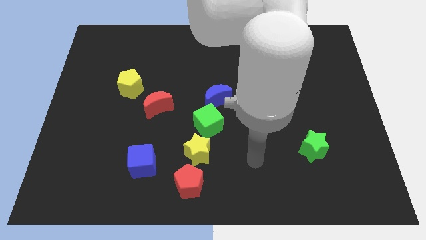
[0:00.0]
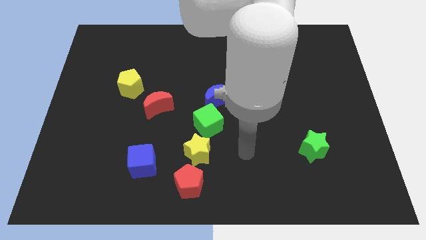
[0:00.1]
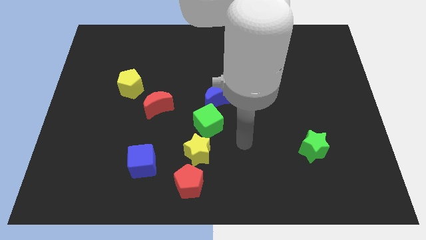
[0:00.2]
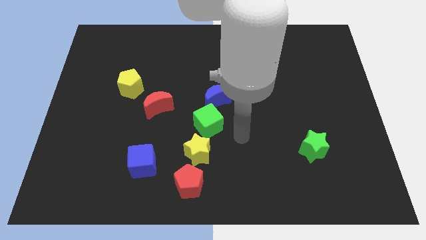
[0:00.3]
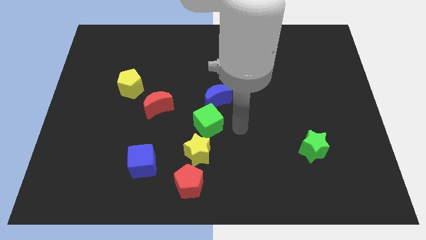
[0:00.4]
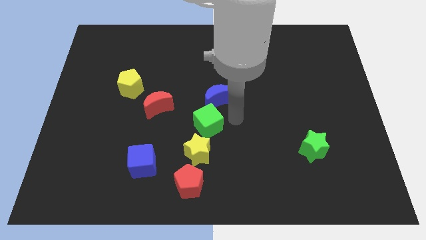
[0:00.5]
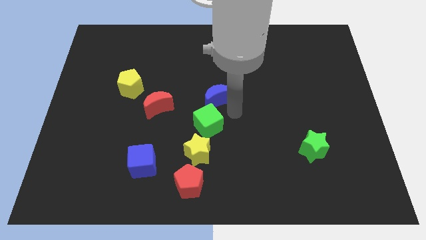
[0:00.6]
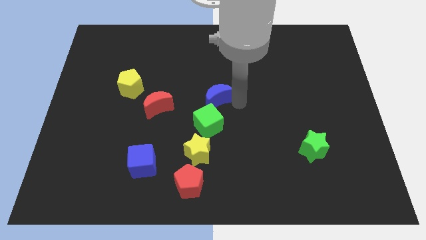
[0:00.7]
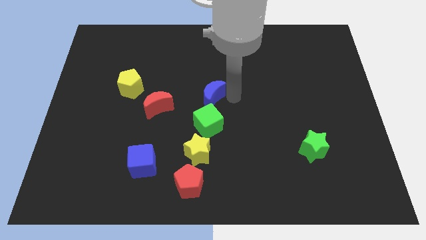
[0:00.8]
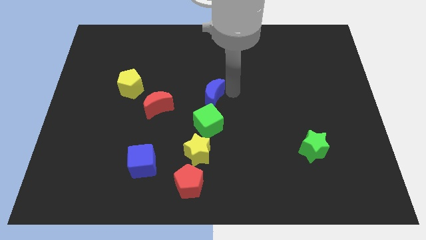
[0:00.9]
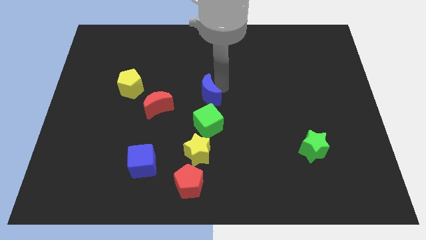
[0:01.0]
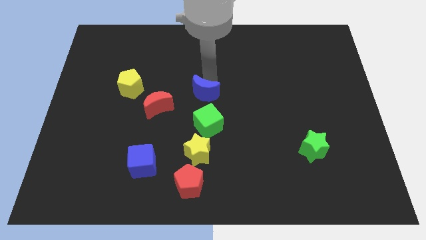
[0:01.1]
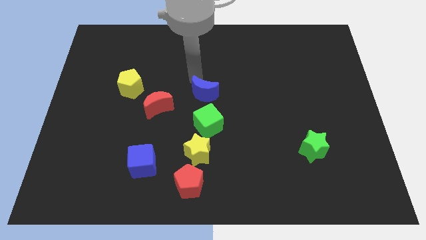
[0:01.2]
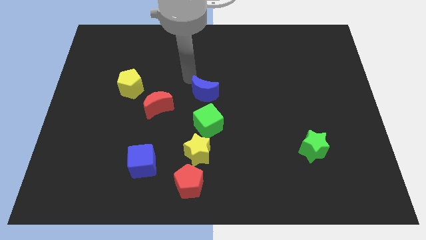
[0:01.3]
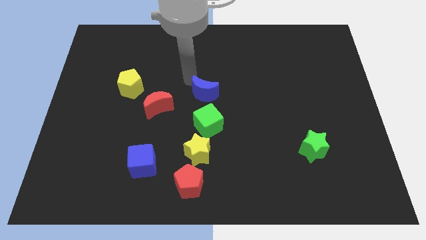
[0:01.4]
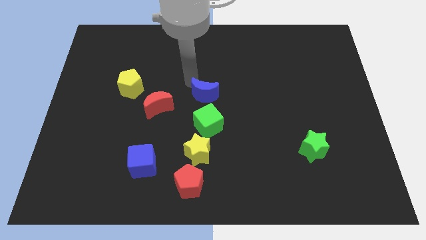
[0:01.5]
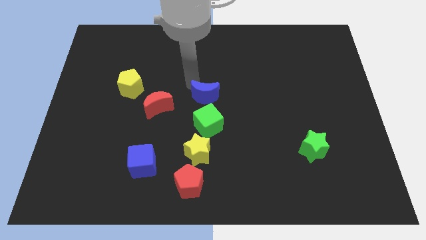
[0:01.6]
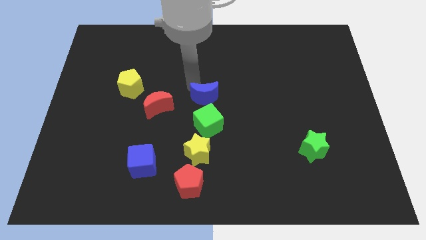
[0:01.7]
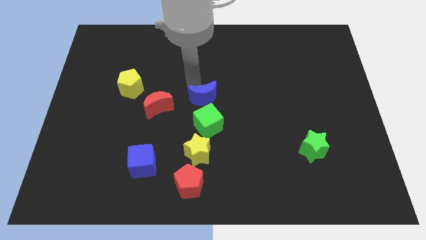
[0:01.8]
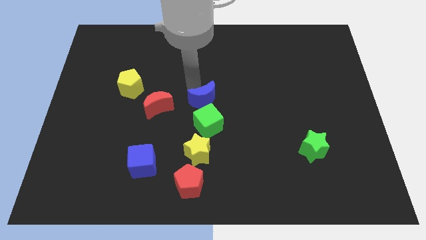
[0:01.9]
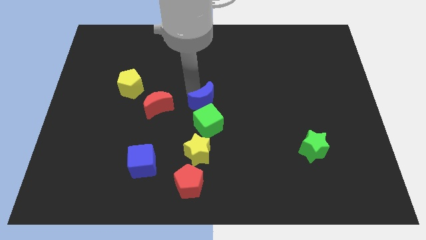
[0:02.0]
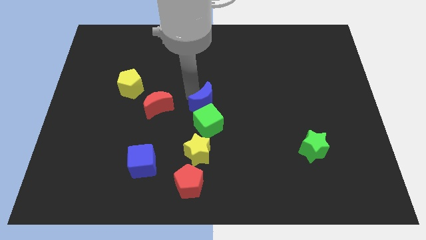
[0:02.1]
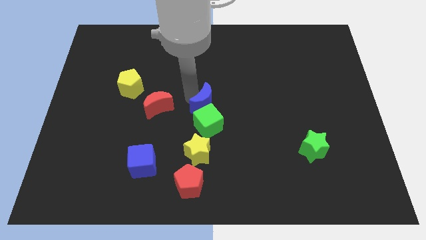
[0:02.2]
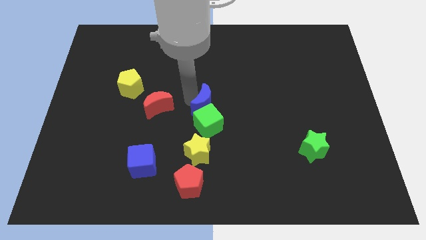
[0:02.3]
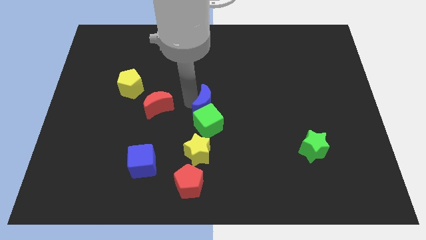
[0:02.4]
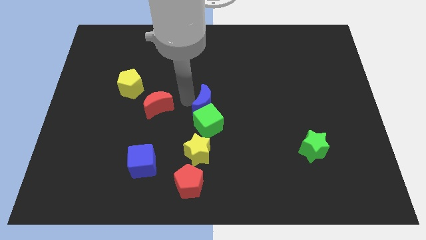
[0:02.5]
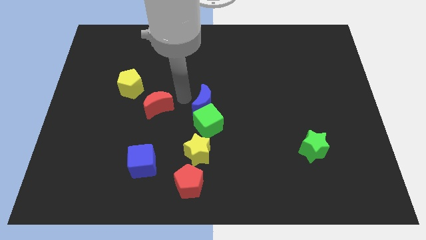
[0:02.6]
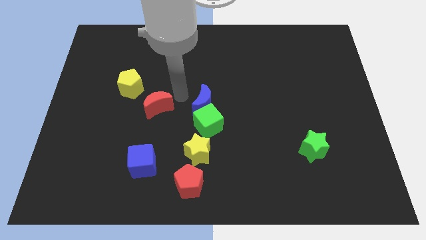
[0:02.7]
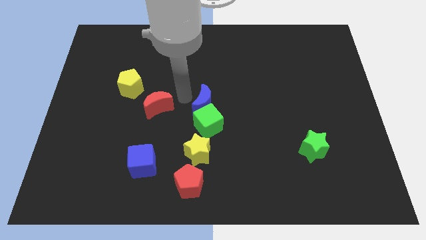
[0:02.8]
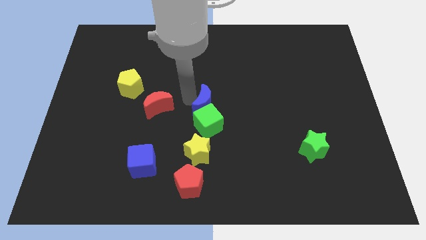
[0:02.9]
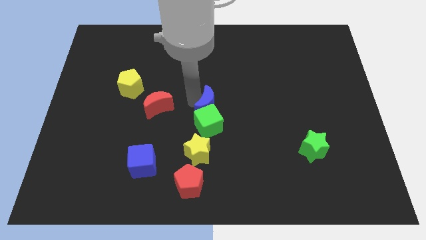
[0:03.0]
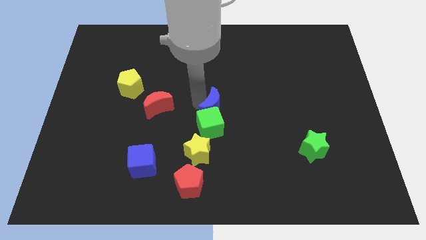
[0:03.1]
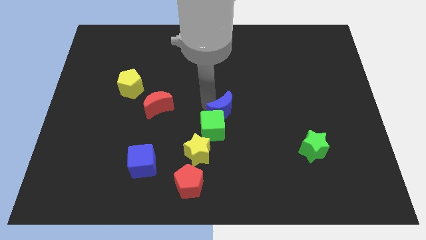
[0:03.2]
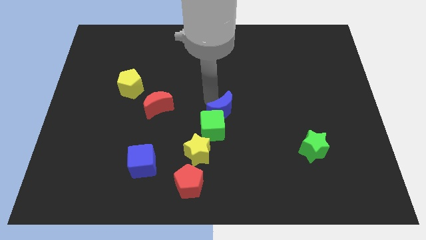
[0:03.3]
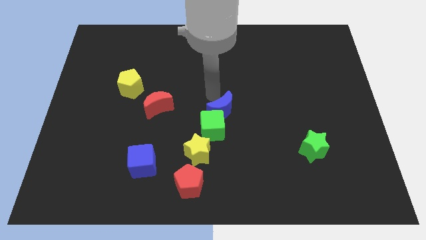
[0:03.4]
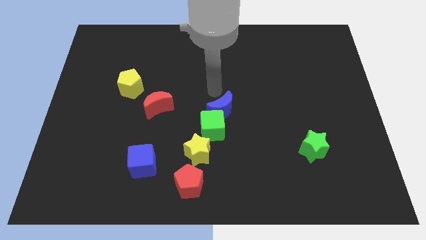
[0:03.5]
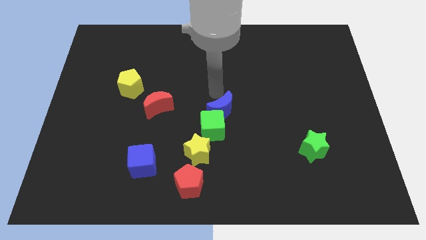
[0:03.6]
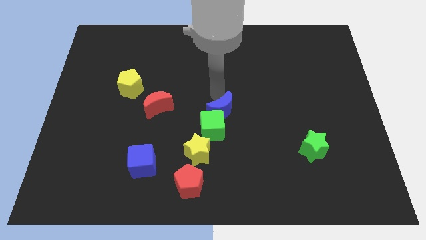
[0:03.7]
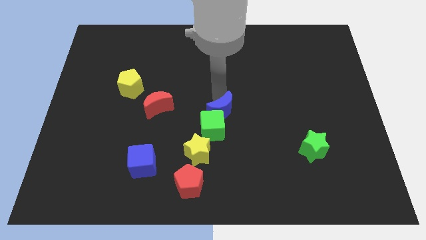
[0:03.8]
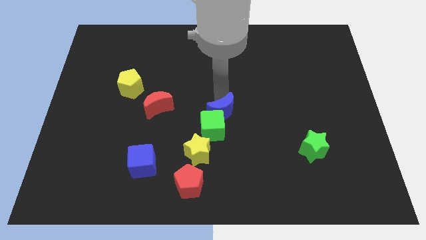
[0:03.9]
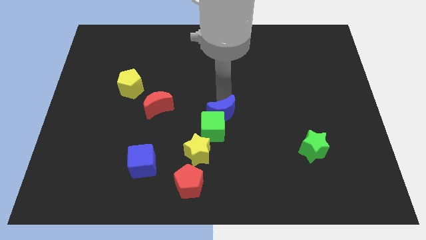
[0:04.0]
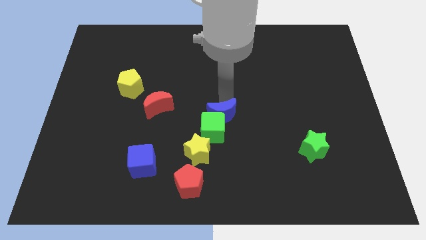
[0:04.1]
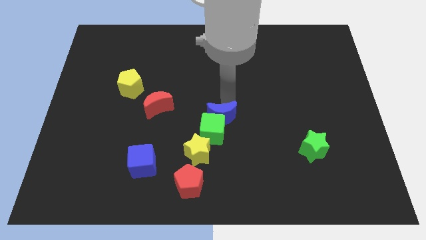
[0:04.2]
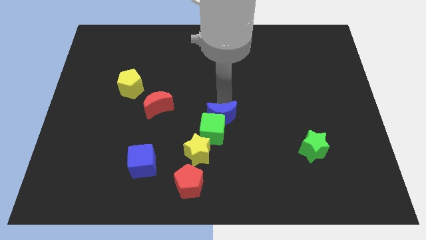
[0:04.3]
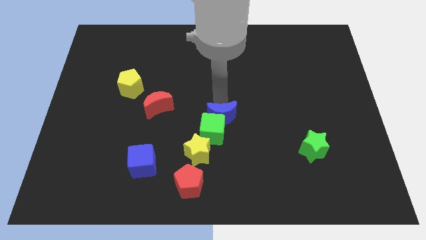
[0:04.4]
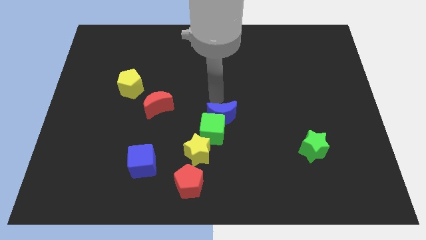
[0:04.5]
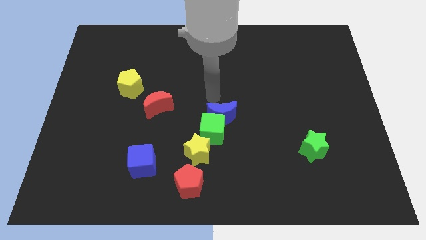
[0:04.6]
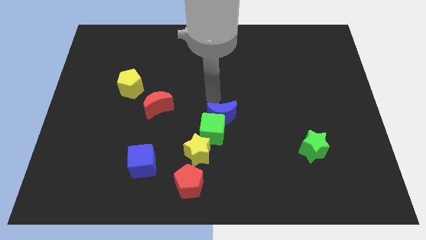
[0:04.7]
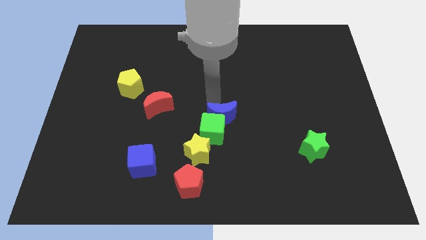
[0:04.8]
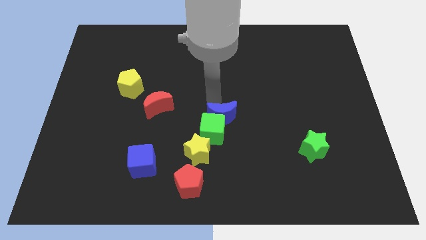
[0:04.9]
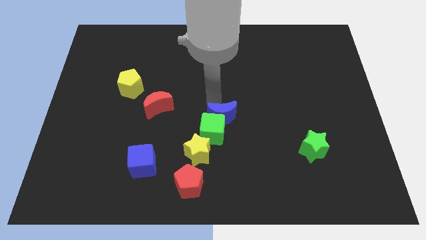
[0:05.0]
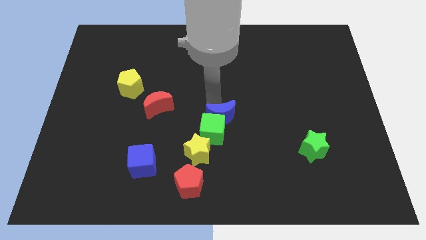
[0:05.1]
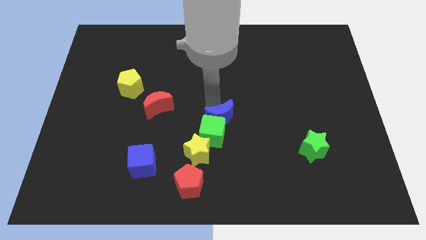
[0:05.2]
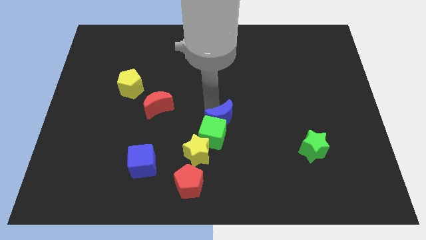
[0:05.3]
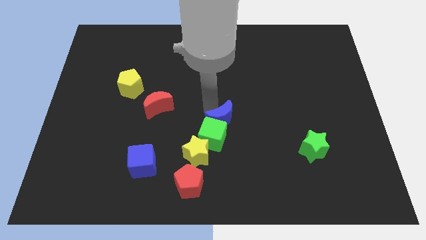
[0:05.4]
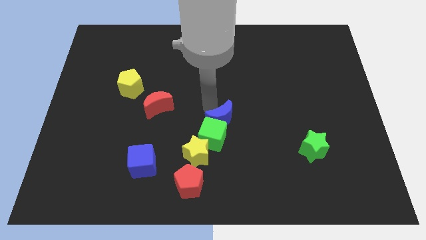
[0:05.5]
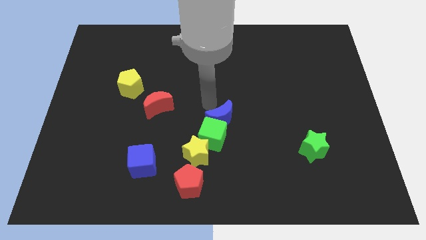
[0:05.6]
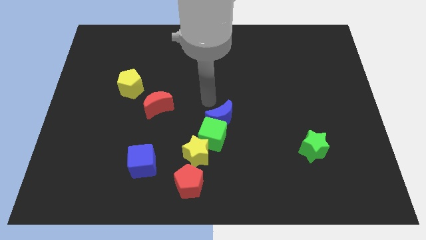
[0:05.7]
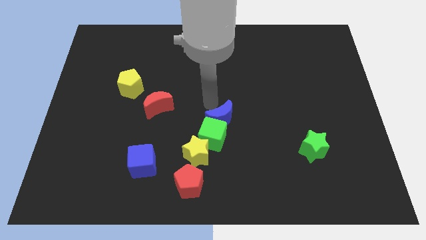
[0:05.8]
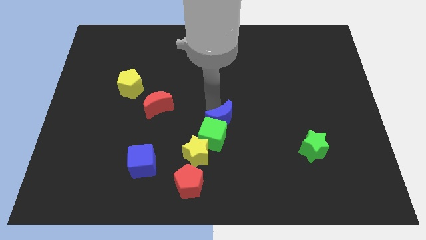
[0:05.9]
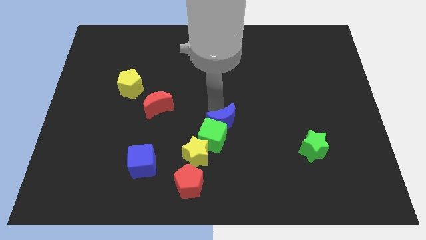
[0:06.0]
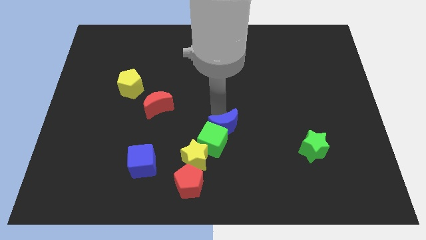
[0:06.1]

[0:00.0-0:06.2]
slightly slide the blue moon downwards

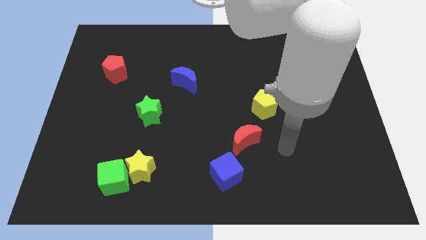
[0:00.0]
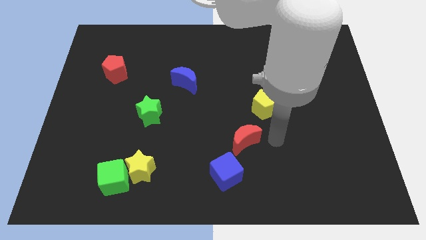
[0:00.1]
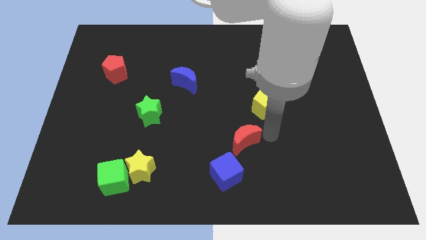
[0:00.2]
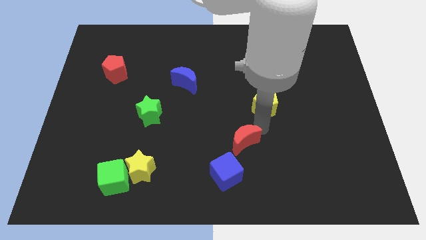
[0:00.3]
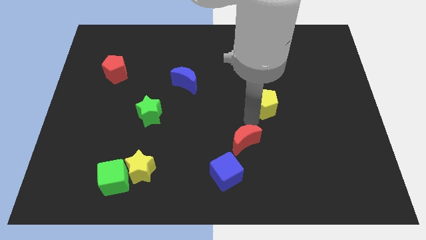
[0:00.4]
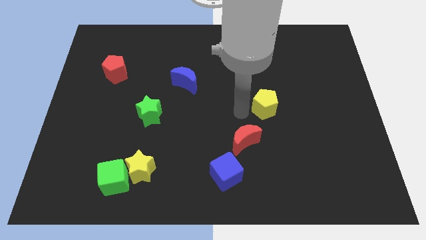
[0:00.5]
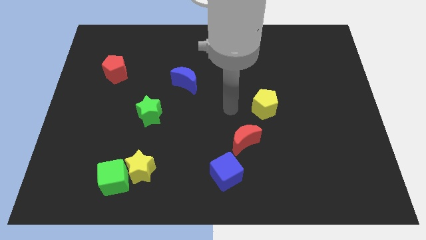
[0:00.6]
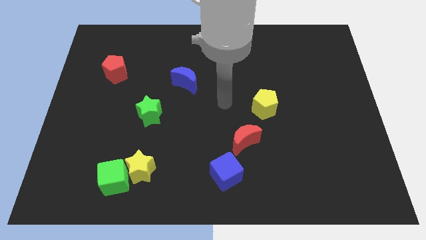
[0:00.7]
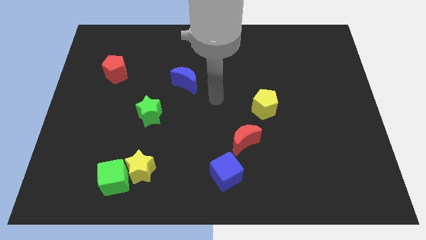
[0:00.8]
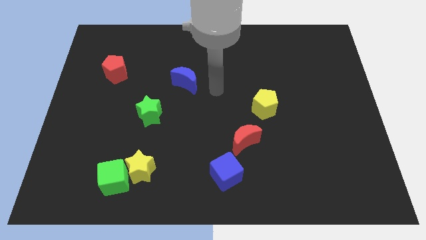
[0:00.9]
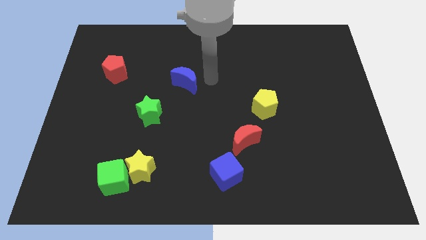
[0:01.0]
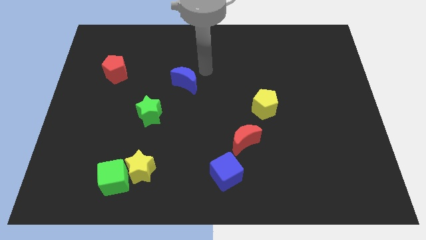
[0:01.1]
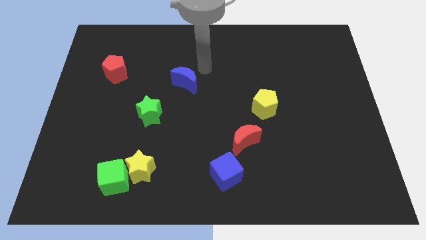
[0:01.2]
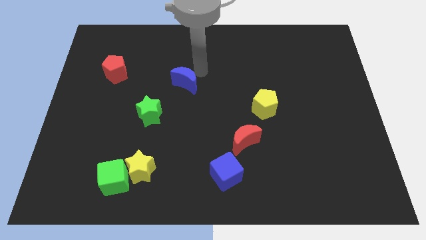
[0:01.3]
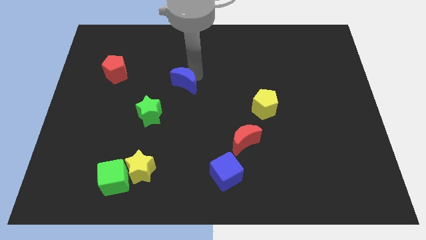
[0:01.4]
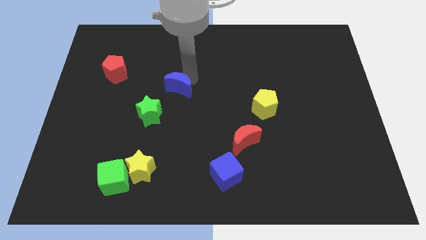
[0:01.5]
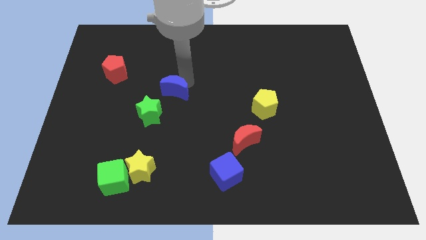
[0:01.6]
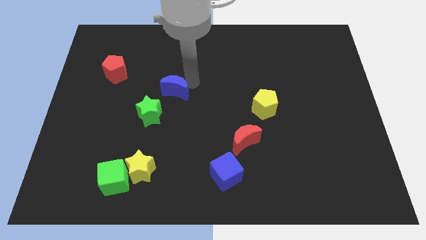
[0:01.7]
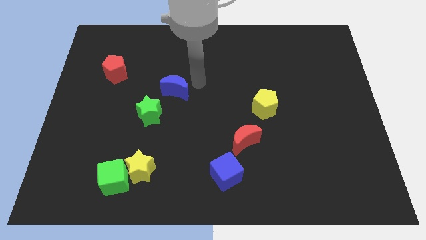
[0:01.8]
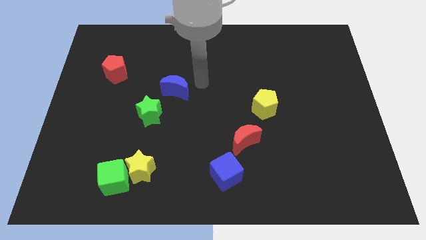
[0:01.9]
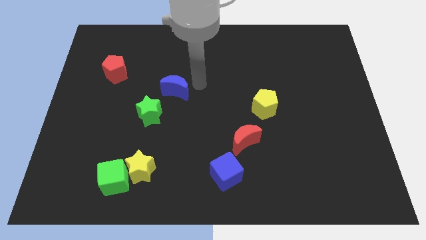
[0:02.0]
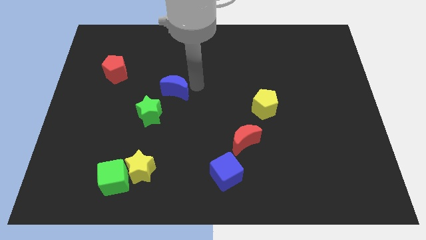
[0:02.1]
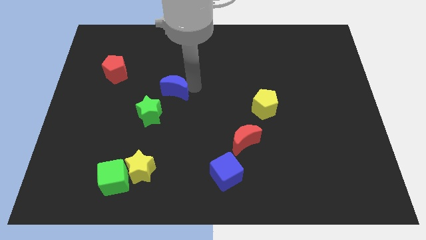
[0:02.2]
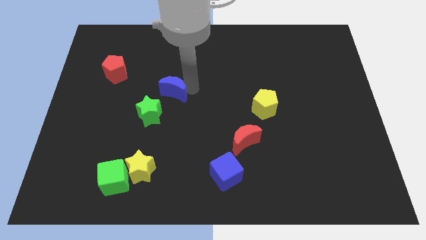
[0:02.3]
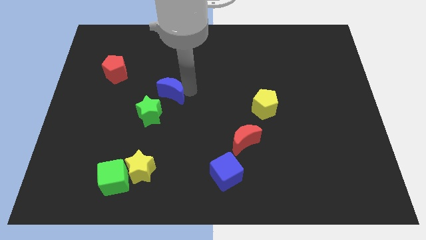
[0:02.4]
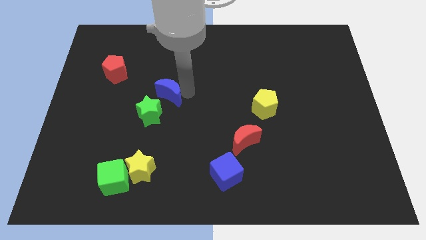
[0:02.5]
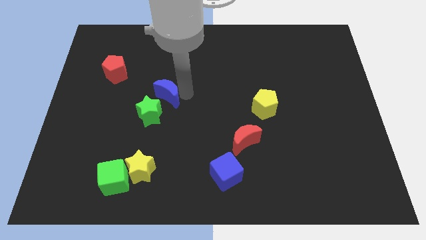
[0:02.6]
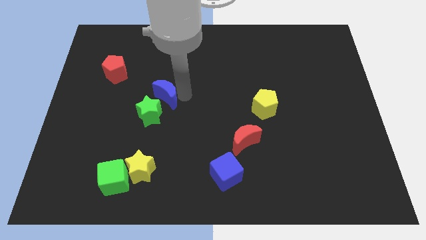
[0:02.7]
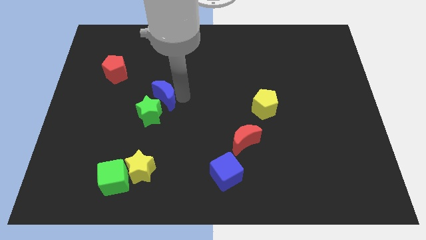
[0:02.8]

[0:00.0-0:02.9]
slightly slide the blue moon down and to the left
